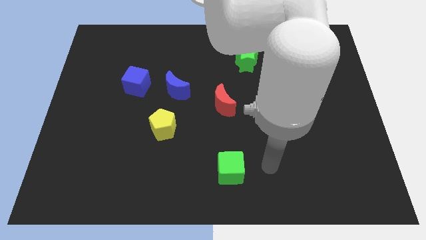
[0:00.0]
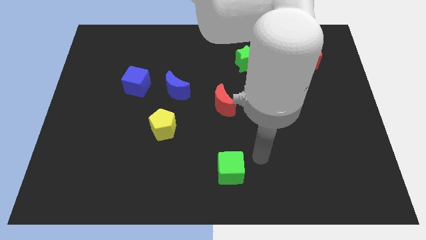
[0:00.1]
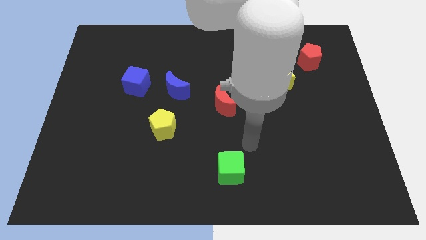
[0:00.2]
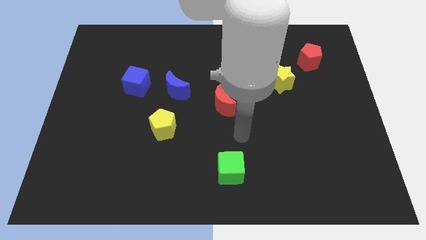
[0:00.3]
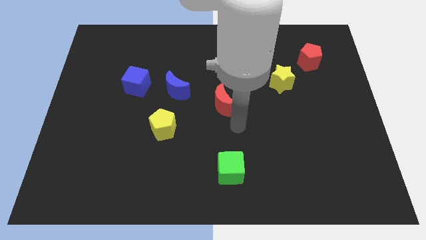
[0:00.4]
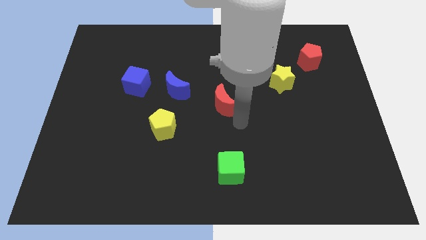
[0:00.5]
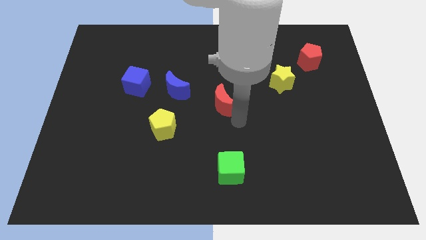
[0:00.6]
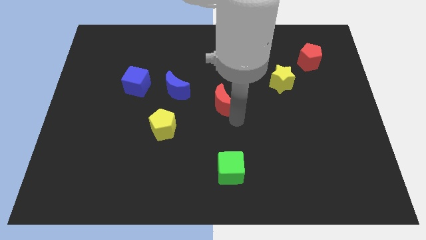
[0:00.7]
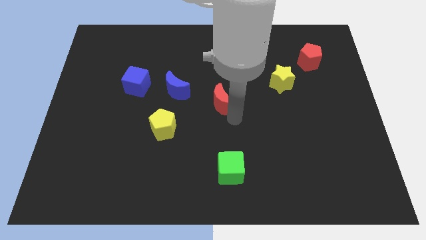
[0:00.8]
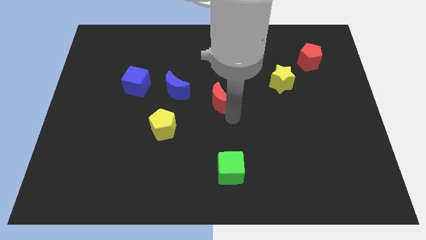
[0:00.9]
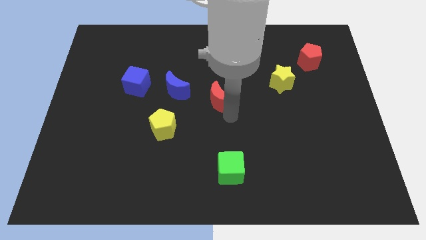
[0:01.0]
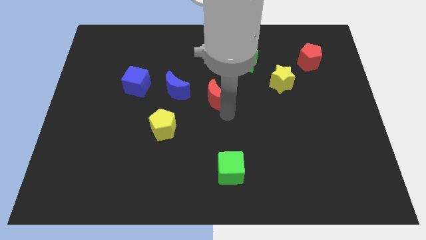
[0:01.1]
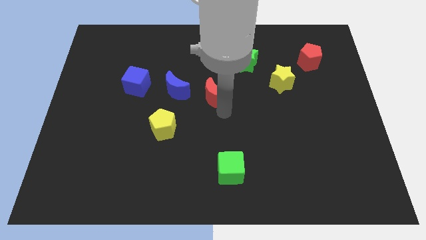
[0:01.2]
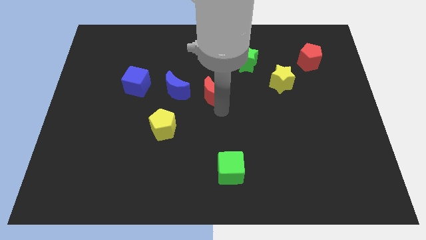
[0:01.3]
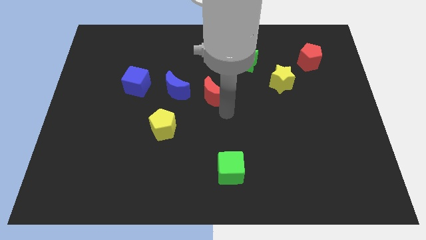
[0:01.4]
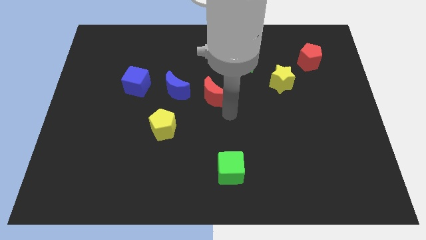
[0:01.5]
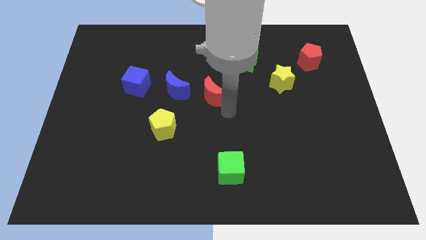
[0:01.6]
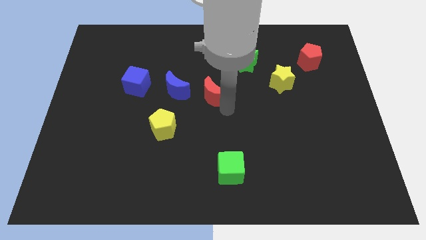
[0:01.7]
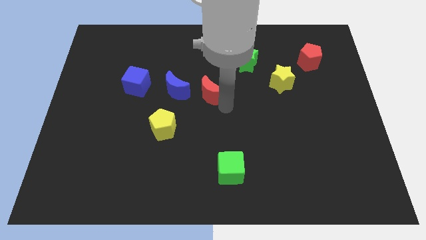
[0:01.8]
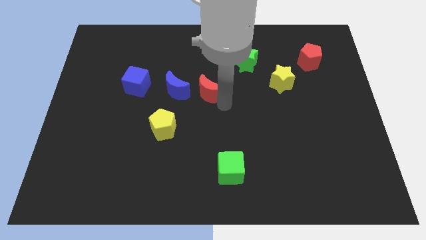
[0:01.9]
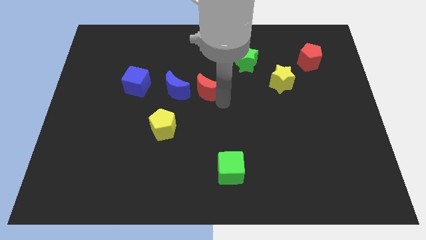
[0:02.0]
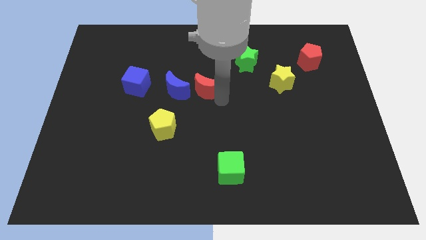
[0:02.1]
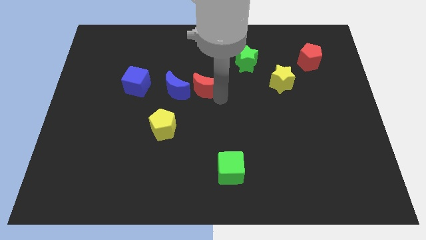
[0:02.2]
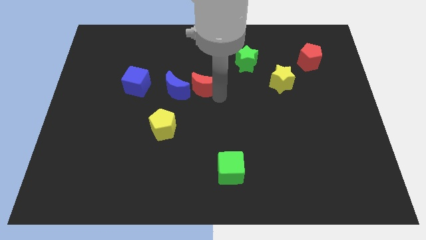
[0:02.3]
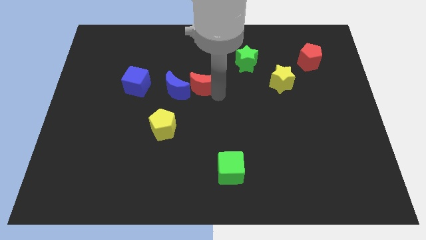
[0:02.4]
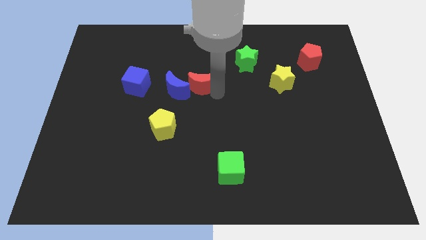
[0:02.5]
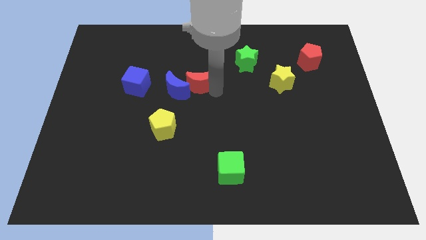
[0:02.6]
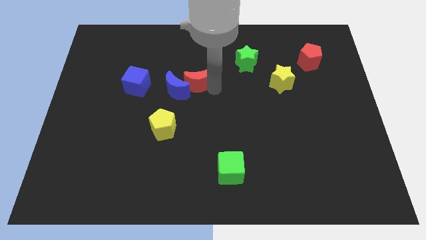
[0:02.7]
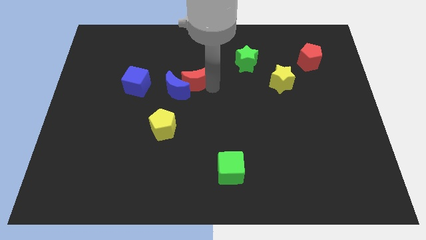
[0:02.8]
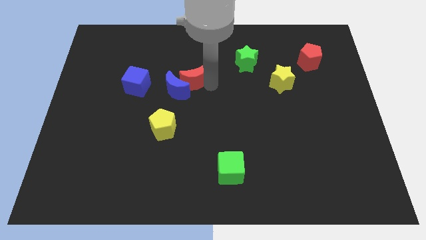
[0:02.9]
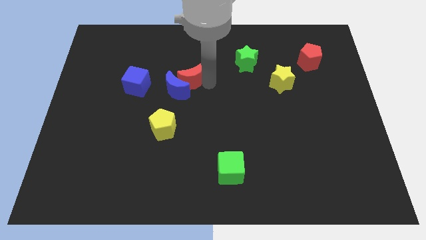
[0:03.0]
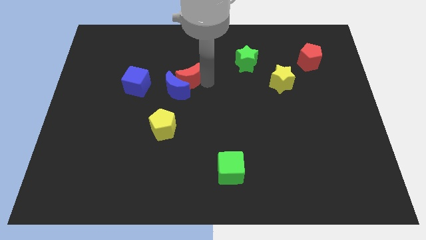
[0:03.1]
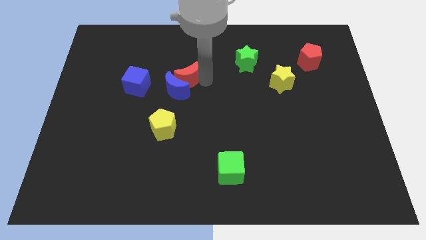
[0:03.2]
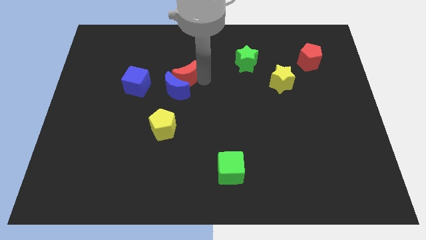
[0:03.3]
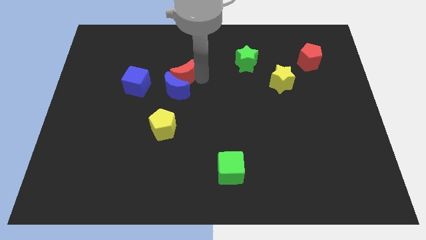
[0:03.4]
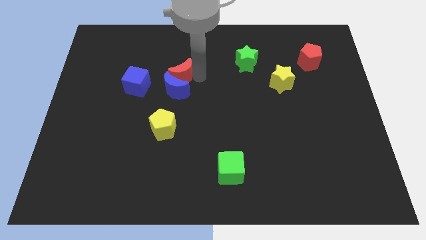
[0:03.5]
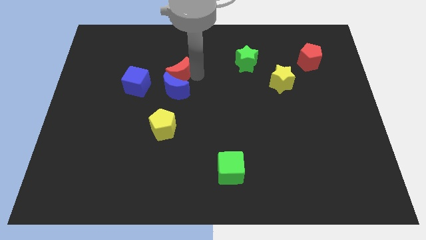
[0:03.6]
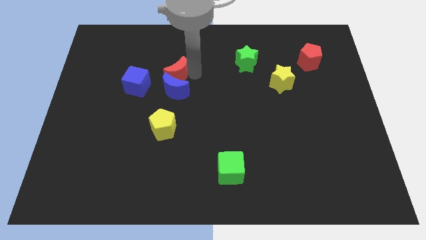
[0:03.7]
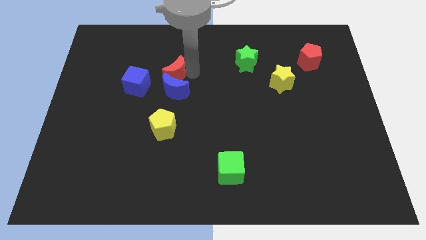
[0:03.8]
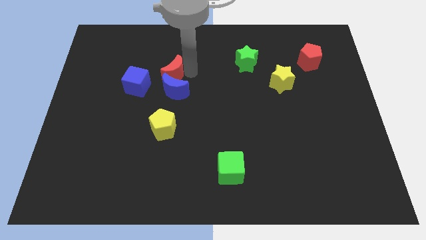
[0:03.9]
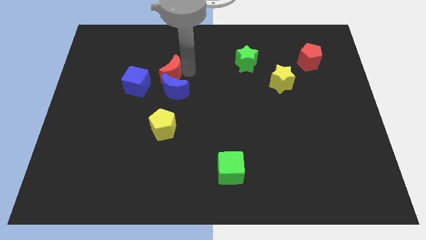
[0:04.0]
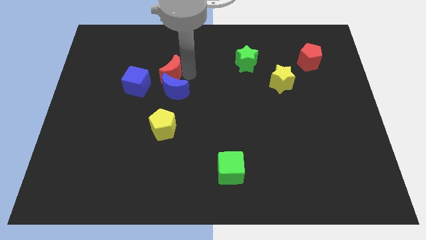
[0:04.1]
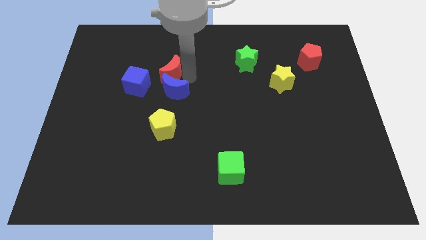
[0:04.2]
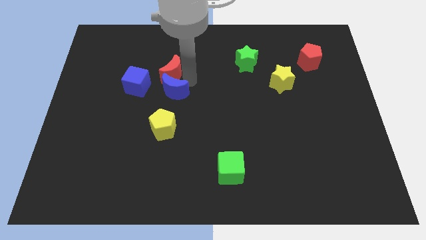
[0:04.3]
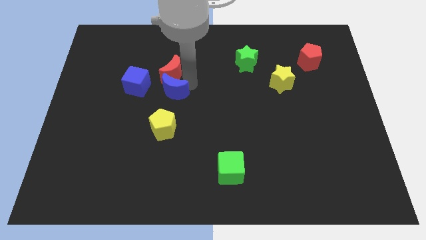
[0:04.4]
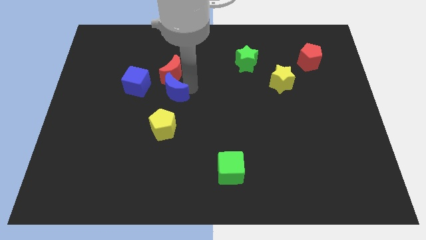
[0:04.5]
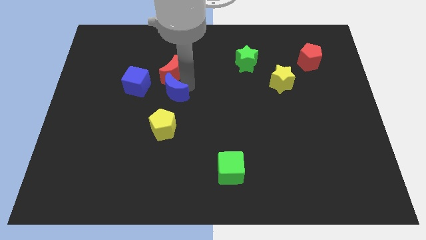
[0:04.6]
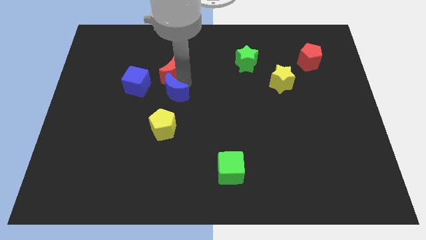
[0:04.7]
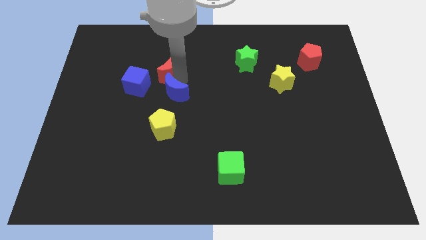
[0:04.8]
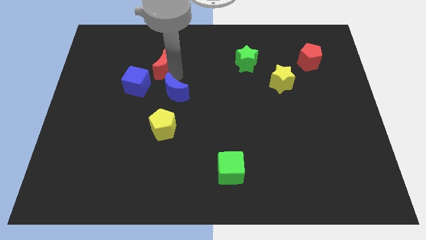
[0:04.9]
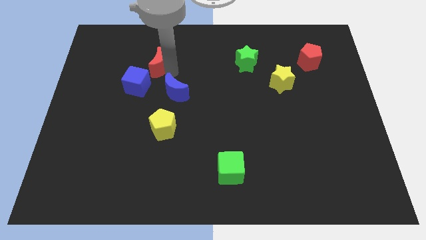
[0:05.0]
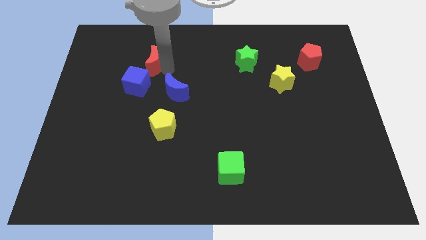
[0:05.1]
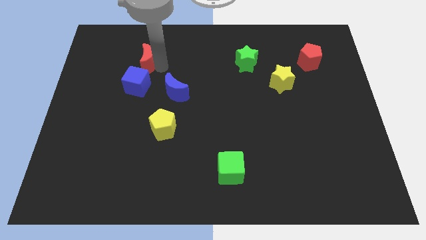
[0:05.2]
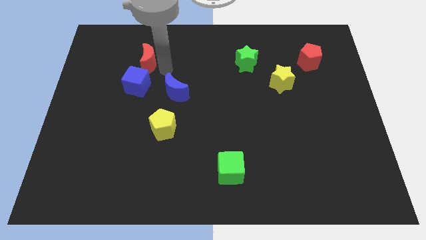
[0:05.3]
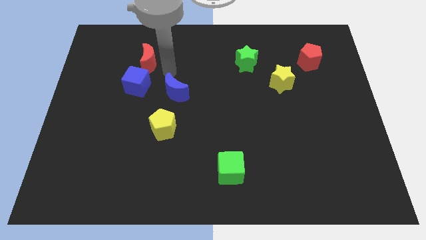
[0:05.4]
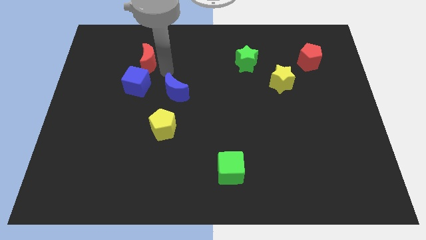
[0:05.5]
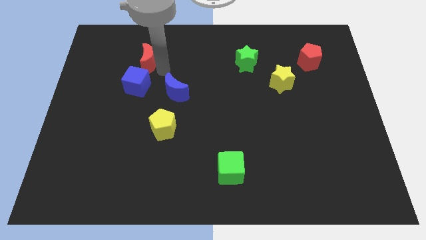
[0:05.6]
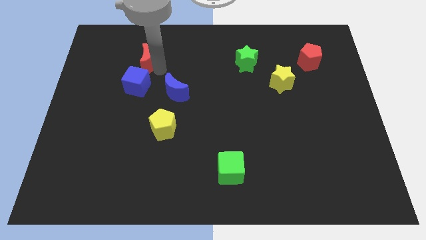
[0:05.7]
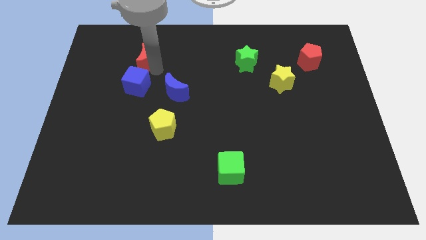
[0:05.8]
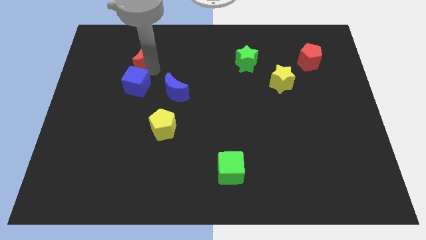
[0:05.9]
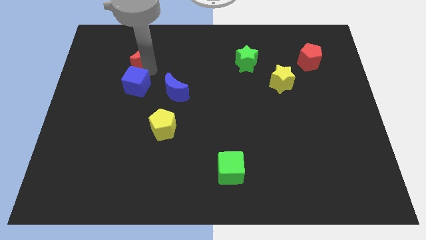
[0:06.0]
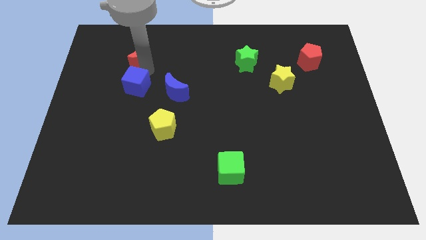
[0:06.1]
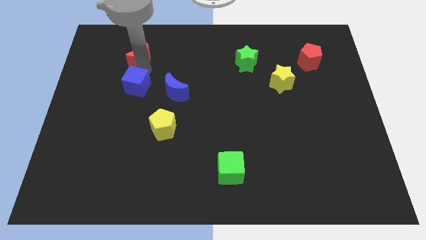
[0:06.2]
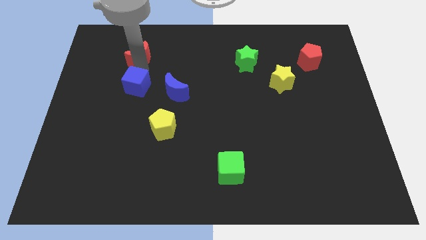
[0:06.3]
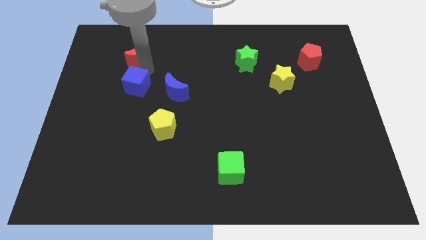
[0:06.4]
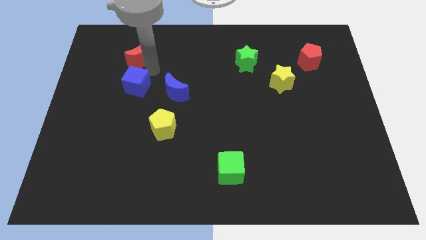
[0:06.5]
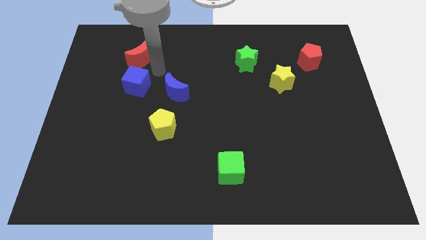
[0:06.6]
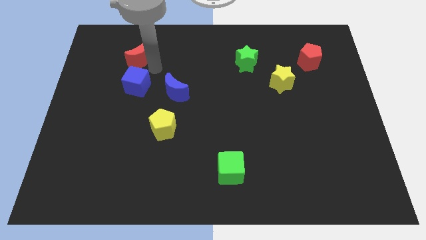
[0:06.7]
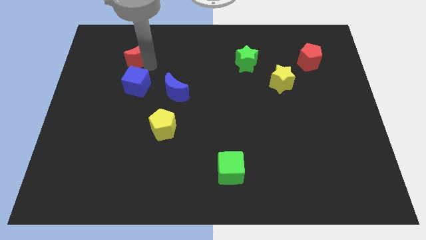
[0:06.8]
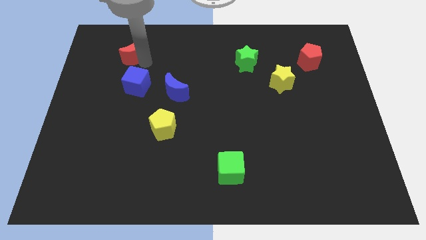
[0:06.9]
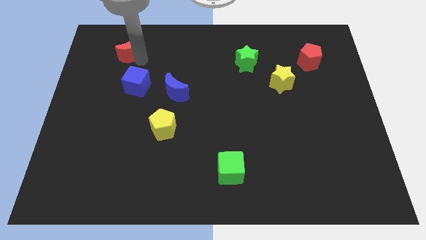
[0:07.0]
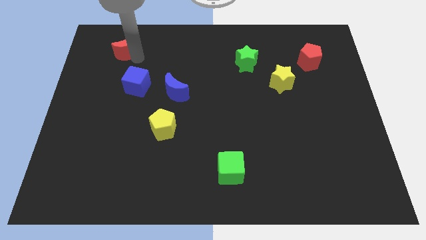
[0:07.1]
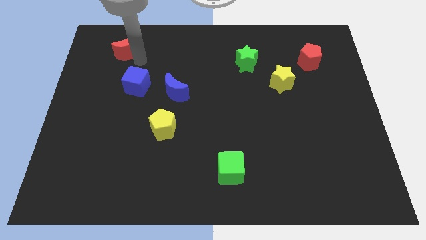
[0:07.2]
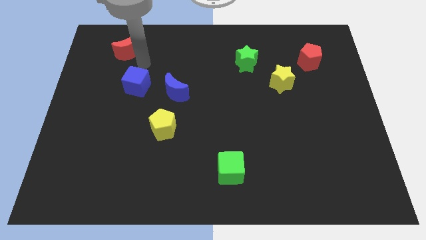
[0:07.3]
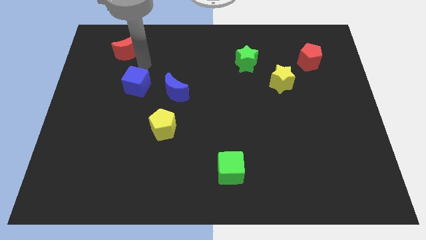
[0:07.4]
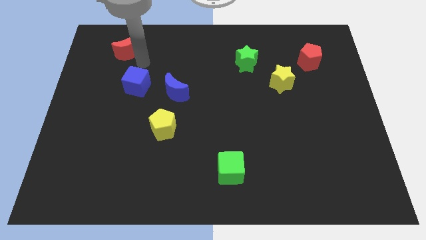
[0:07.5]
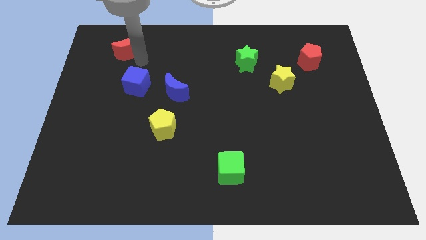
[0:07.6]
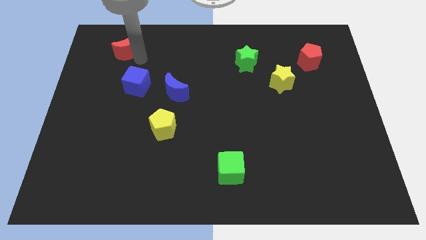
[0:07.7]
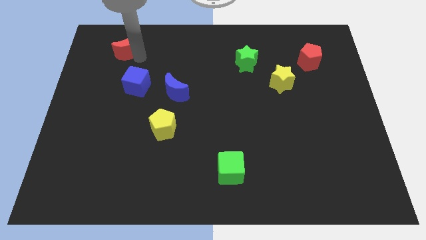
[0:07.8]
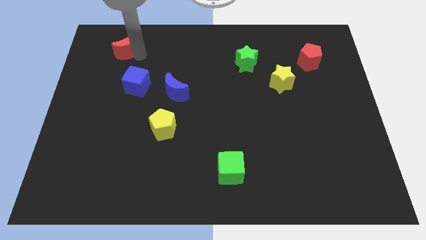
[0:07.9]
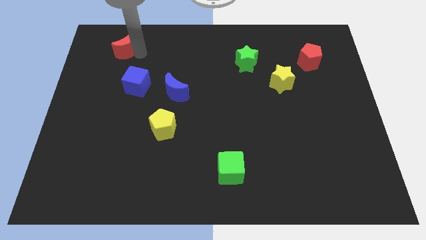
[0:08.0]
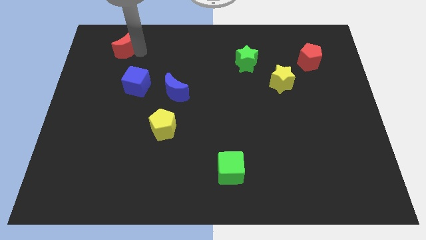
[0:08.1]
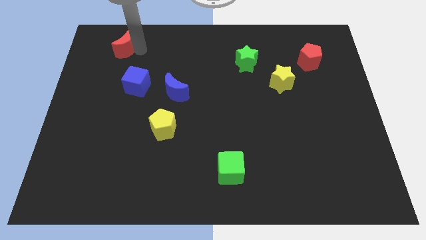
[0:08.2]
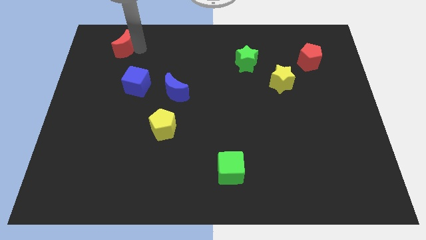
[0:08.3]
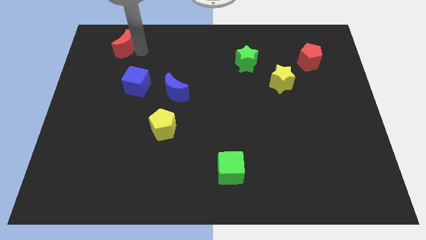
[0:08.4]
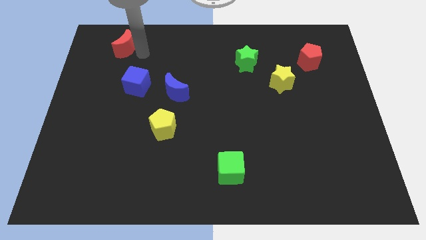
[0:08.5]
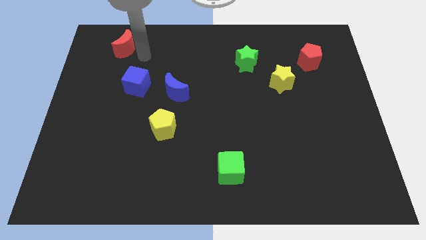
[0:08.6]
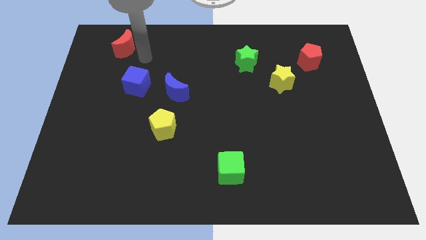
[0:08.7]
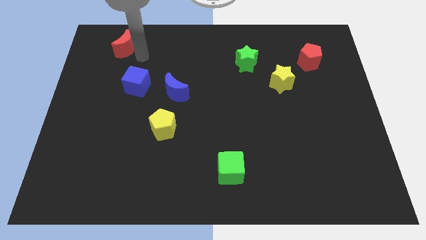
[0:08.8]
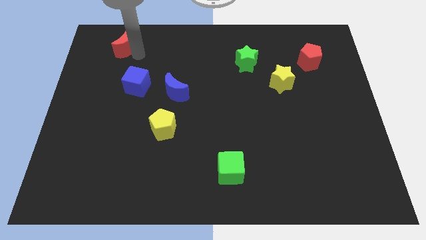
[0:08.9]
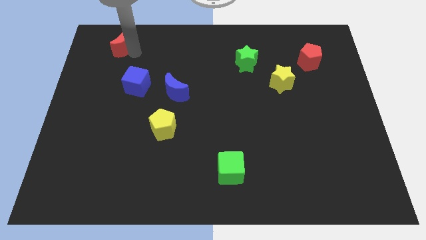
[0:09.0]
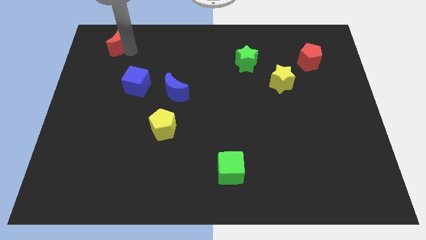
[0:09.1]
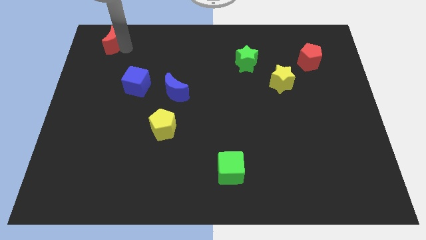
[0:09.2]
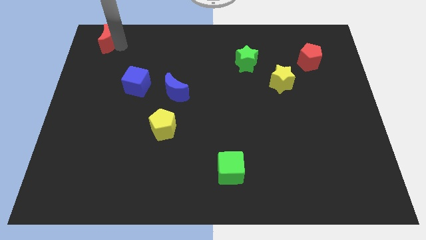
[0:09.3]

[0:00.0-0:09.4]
put the red moon to the top left
